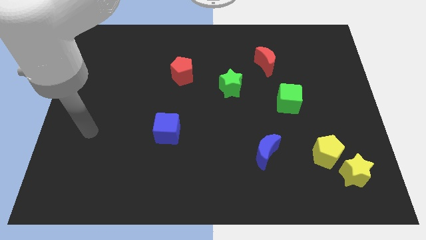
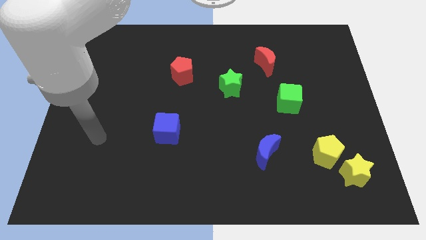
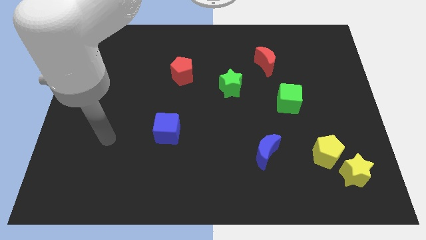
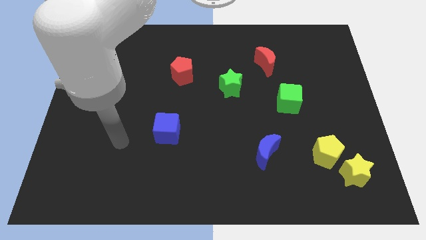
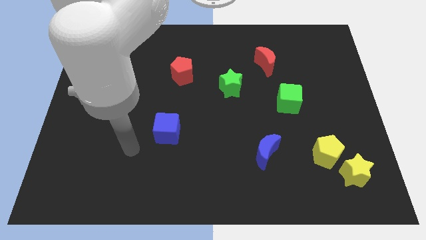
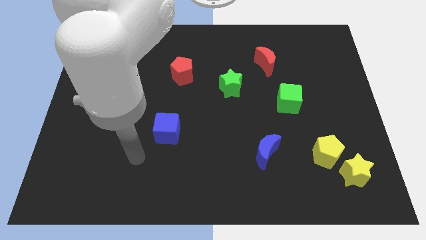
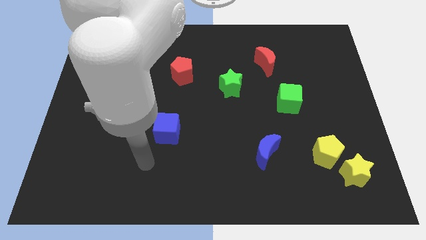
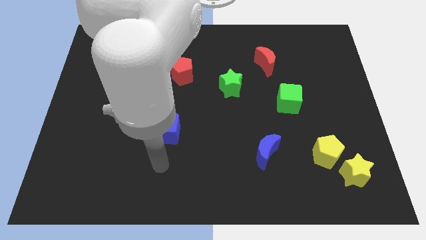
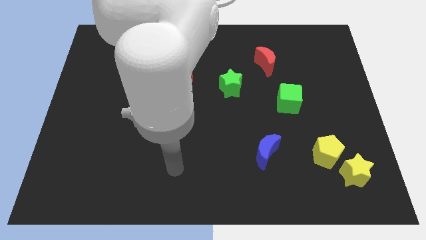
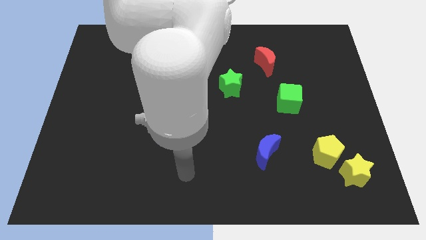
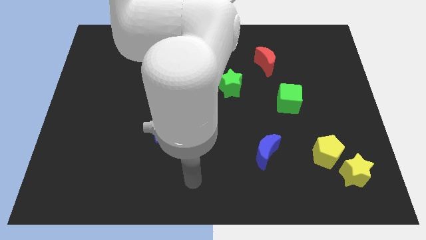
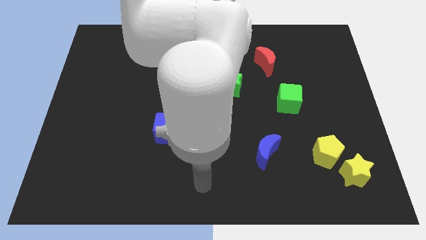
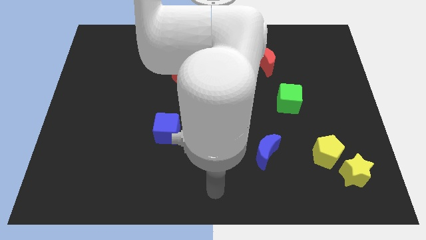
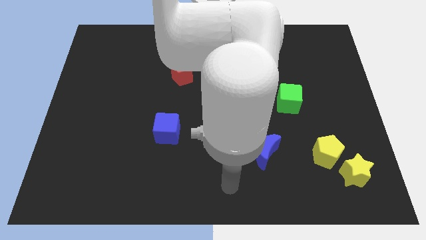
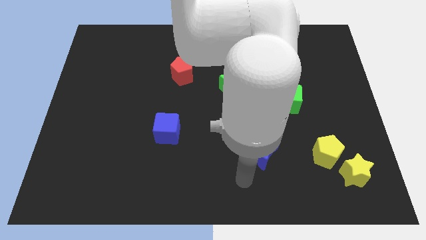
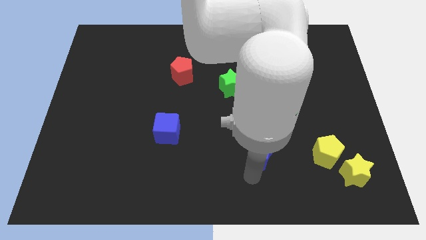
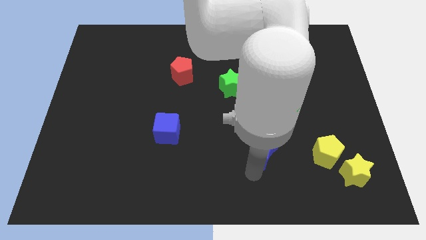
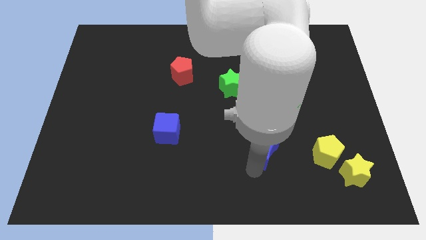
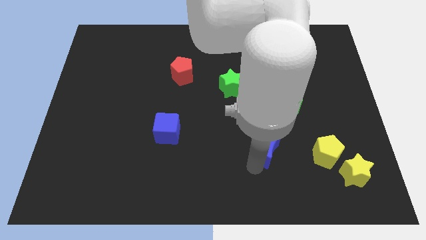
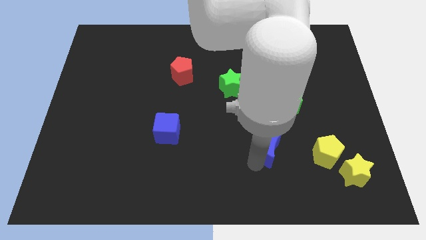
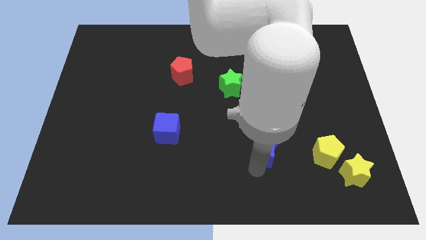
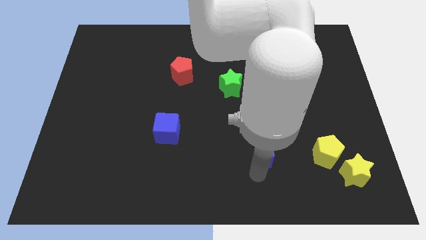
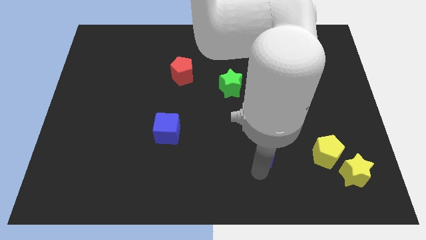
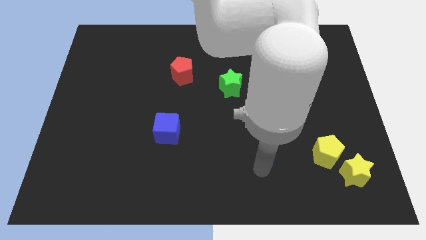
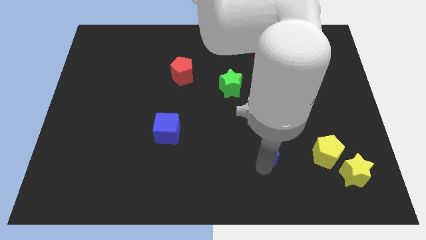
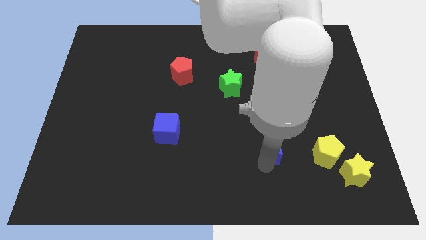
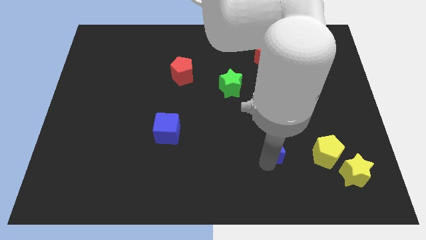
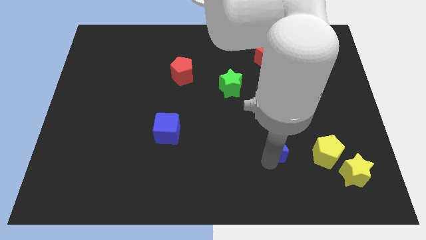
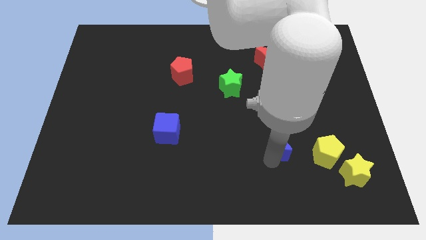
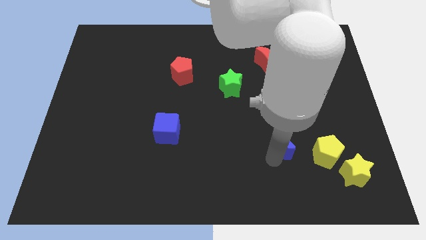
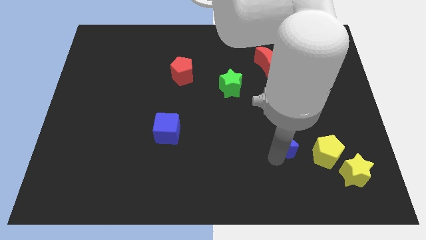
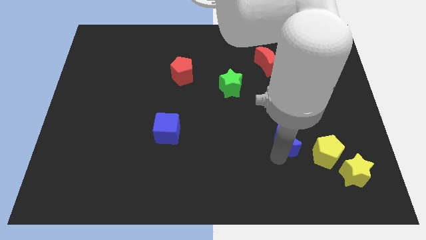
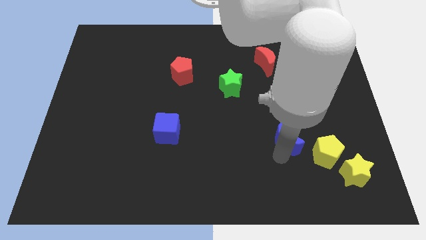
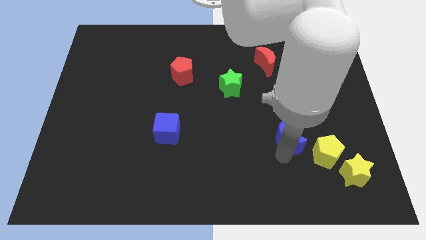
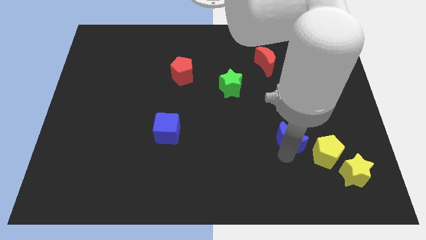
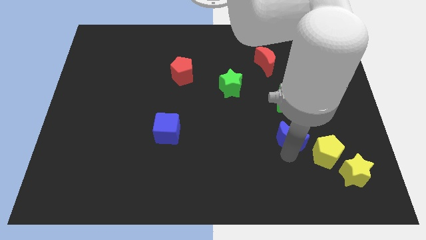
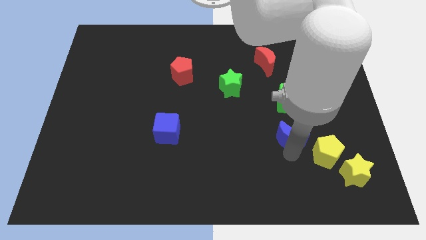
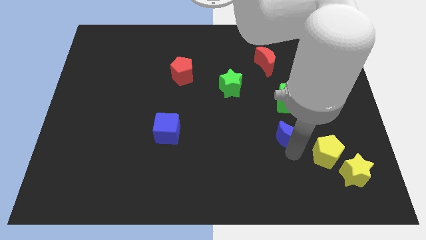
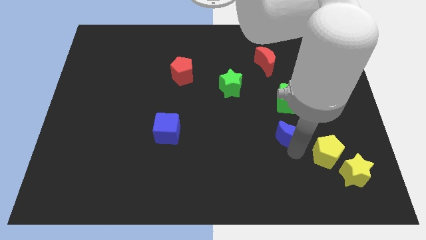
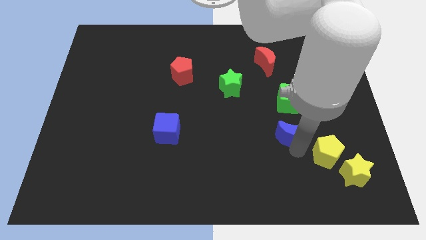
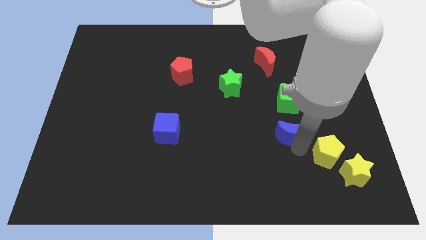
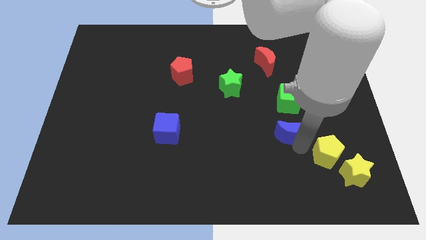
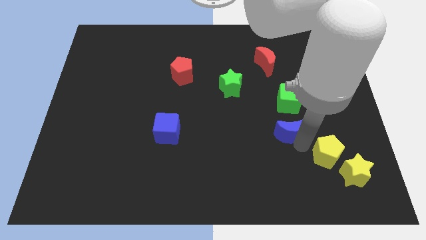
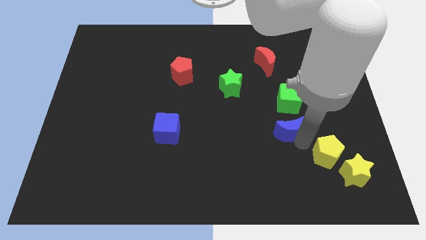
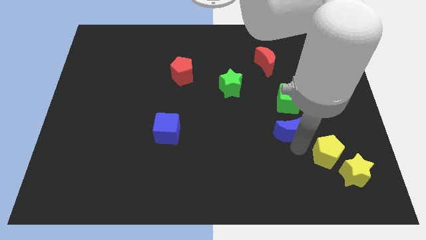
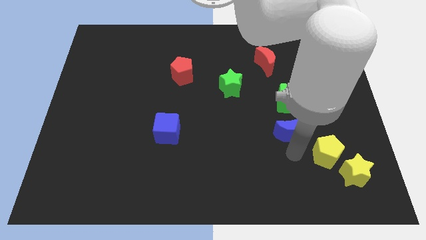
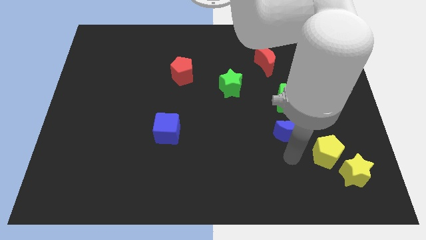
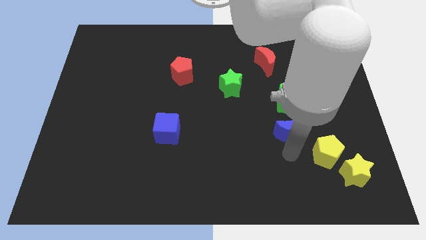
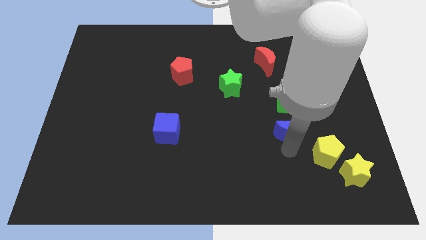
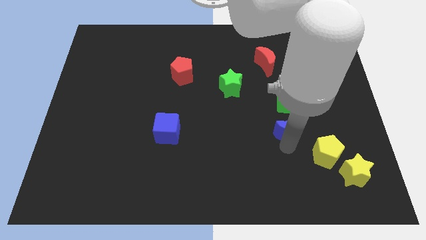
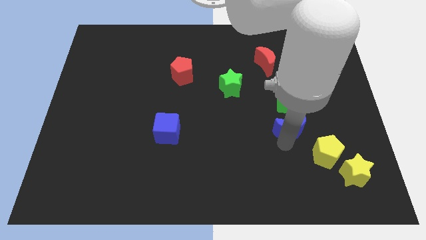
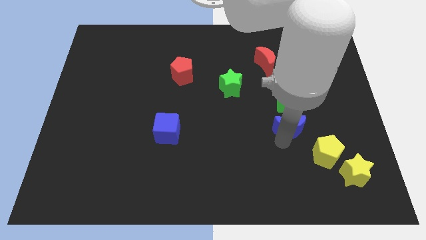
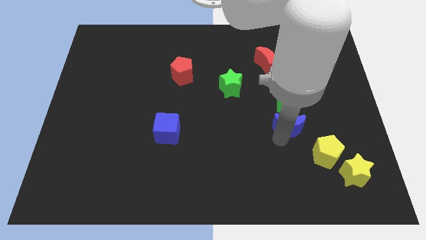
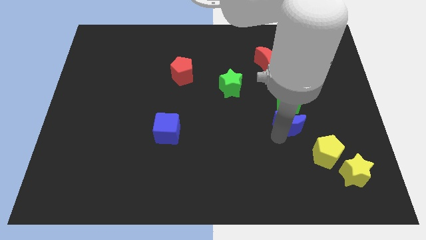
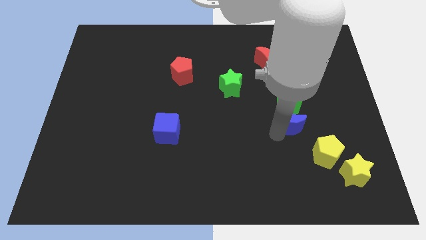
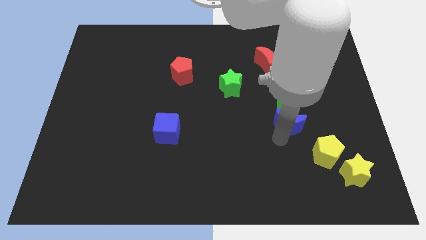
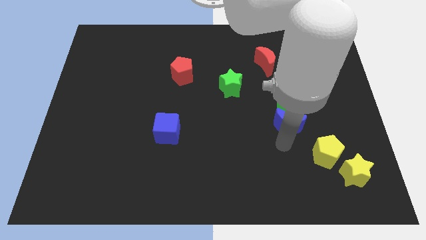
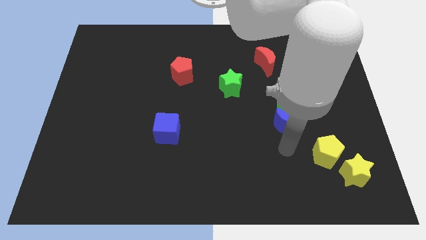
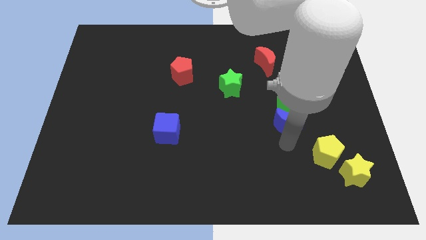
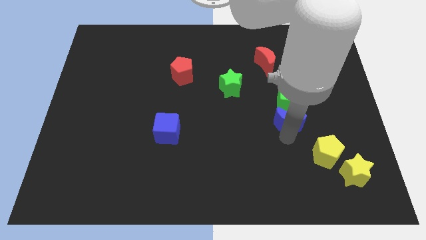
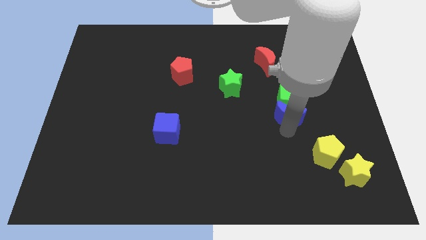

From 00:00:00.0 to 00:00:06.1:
move the blue moon to the green cube
